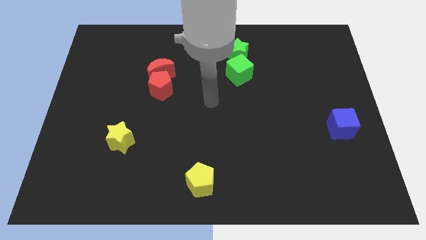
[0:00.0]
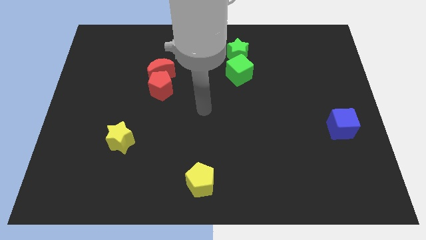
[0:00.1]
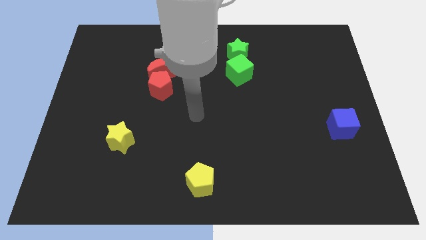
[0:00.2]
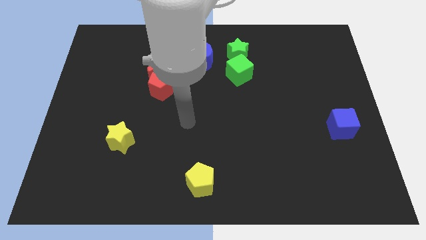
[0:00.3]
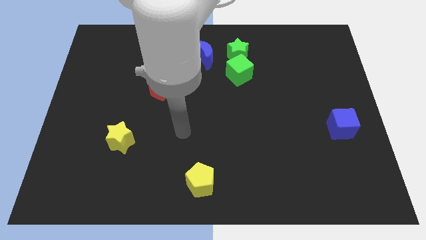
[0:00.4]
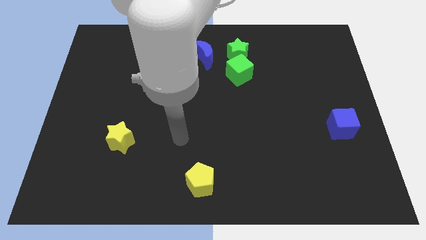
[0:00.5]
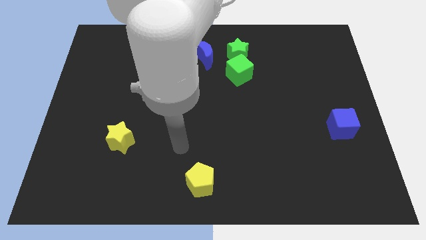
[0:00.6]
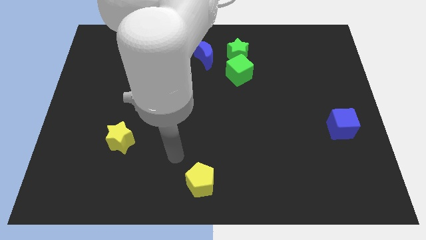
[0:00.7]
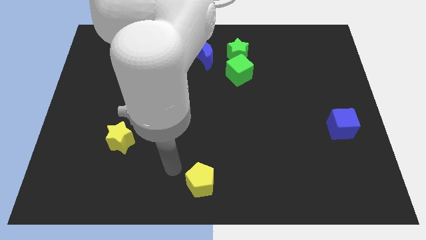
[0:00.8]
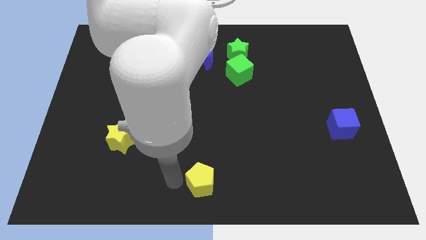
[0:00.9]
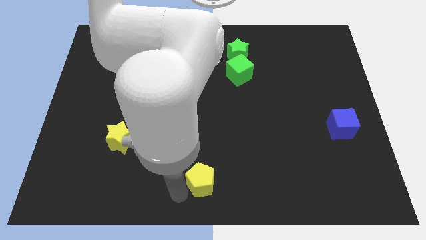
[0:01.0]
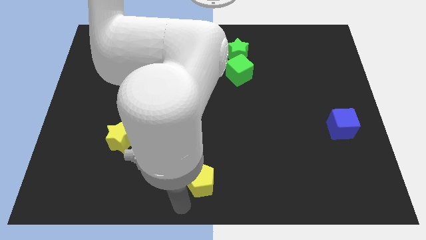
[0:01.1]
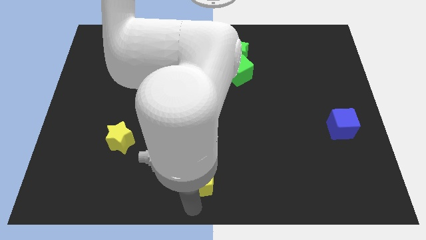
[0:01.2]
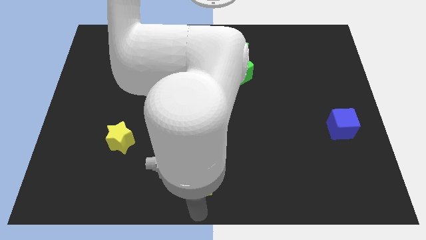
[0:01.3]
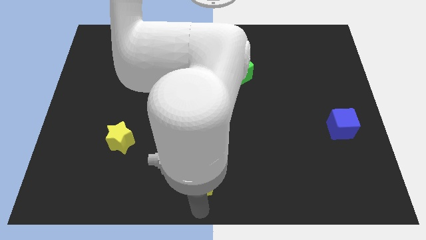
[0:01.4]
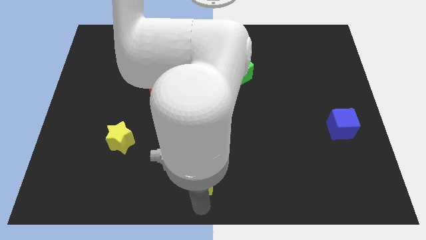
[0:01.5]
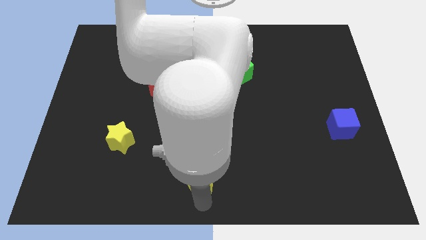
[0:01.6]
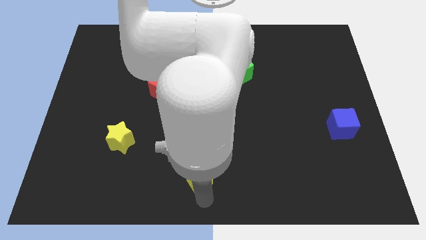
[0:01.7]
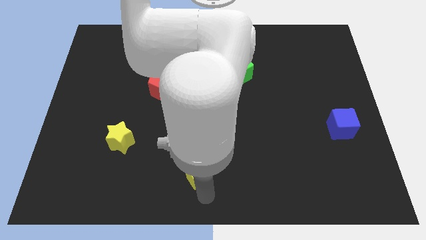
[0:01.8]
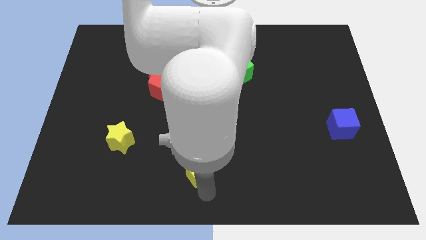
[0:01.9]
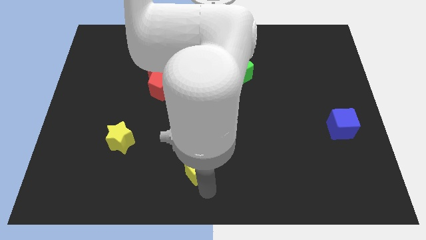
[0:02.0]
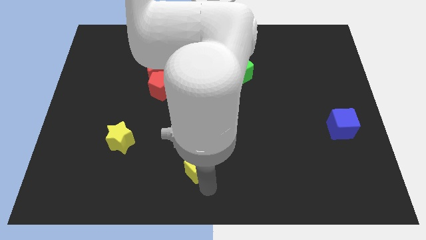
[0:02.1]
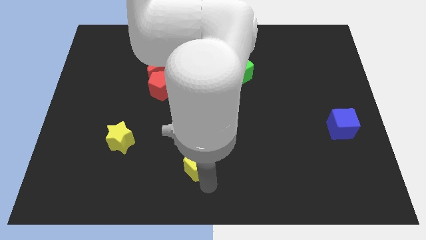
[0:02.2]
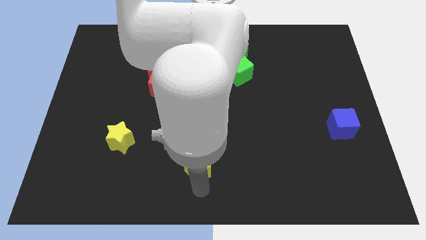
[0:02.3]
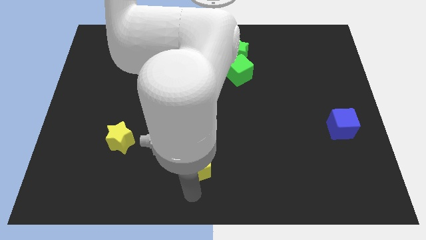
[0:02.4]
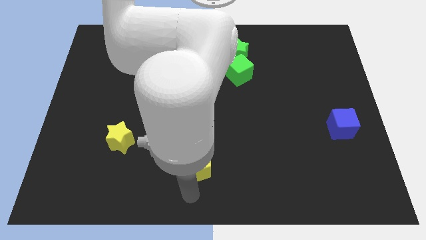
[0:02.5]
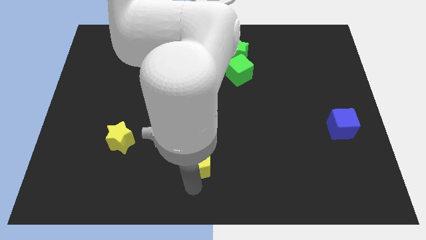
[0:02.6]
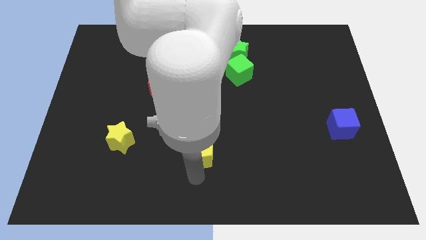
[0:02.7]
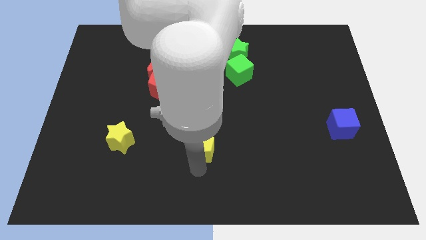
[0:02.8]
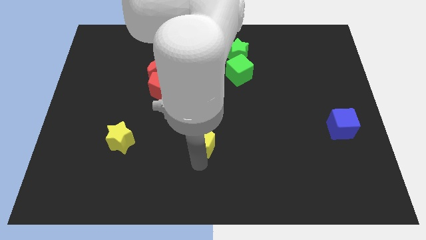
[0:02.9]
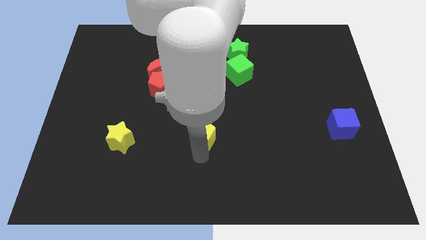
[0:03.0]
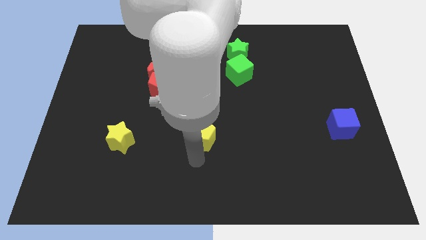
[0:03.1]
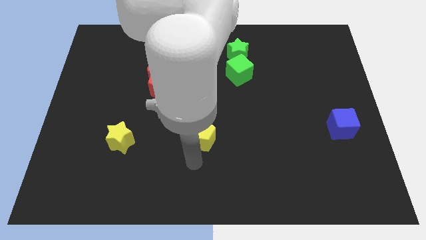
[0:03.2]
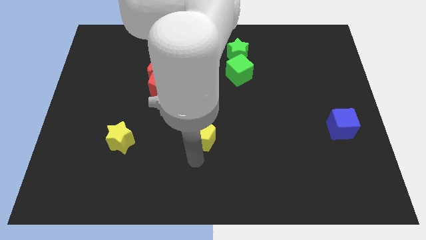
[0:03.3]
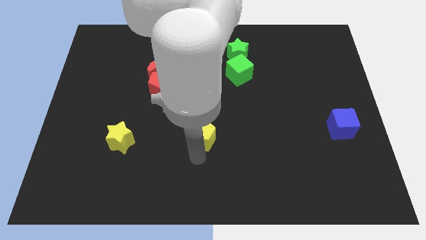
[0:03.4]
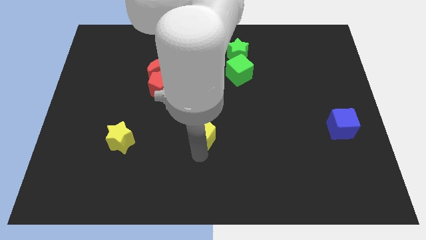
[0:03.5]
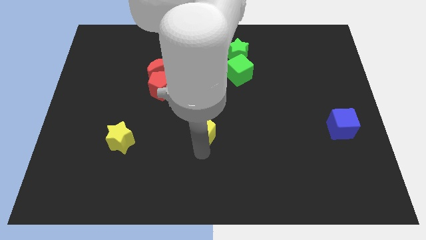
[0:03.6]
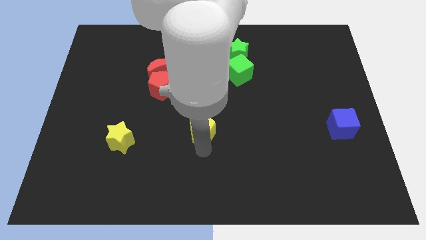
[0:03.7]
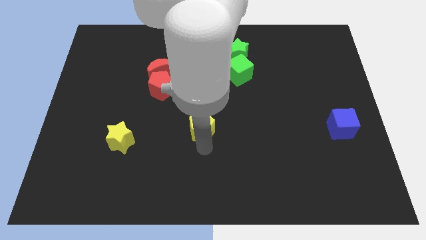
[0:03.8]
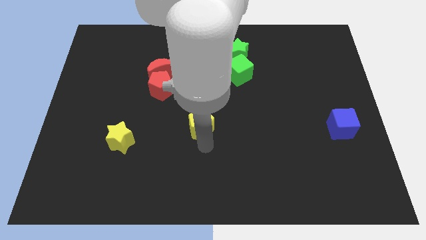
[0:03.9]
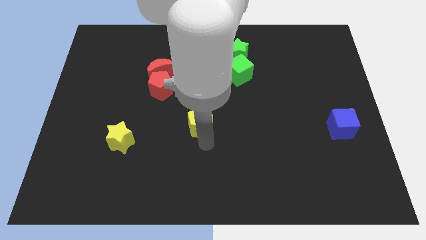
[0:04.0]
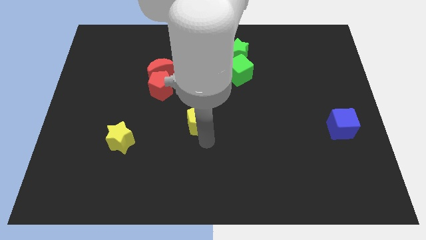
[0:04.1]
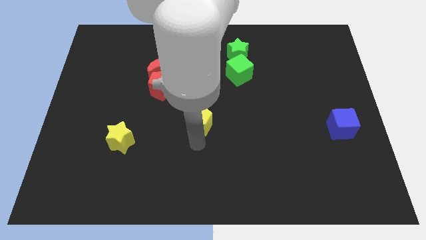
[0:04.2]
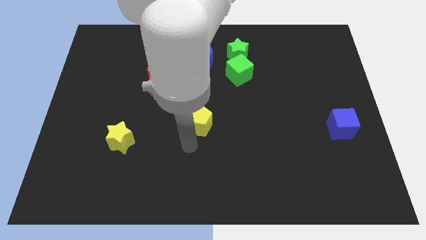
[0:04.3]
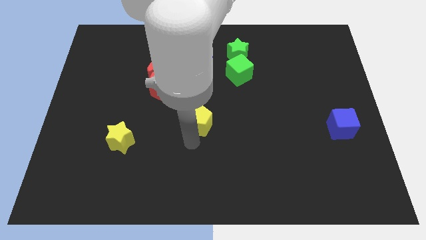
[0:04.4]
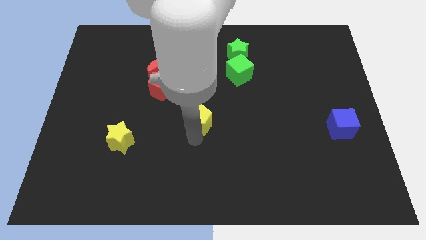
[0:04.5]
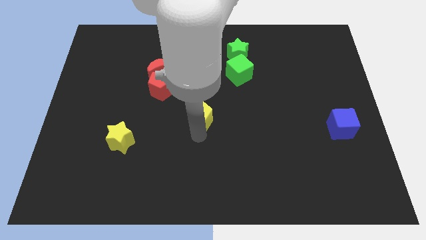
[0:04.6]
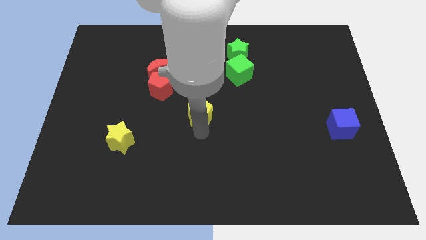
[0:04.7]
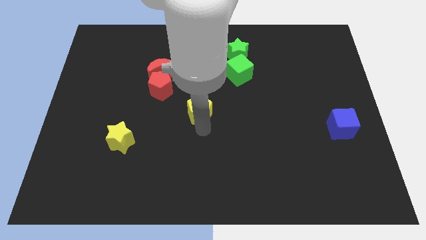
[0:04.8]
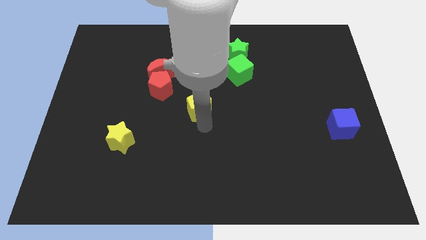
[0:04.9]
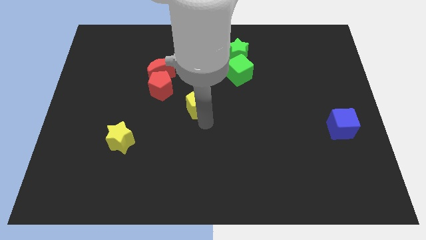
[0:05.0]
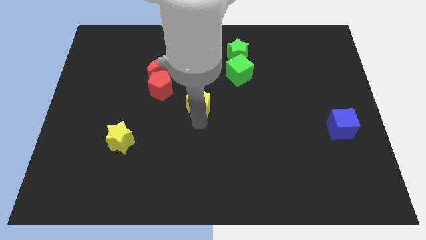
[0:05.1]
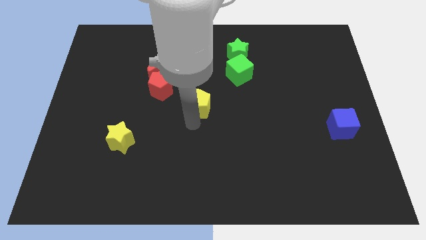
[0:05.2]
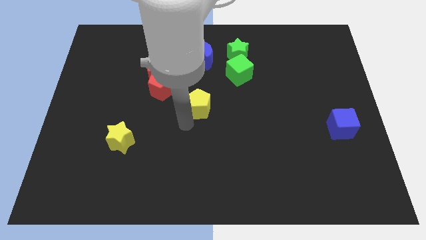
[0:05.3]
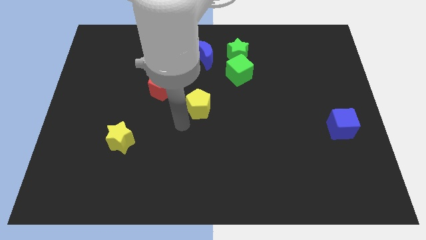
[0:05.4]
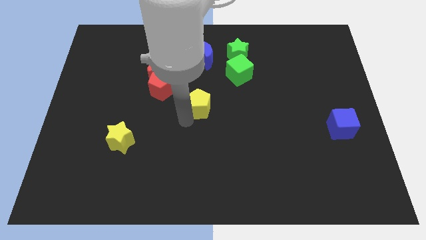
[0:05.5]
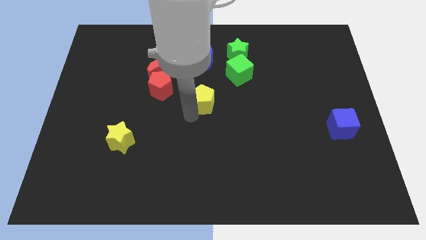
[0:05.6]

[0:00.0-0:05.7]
move the yellow pentagon to the bottom left side of the green cube

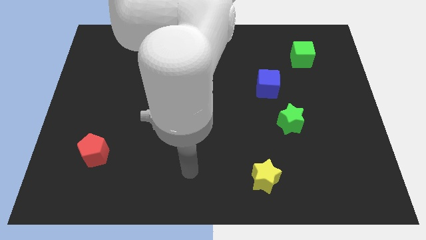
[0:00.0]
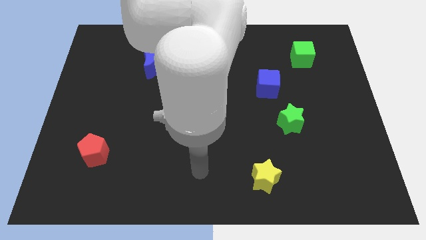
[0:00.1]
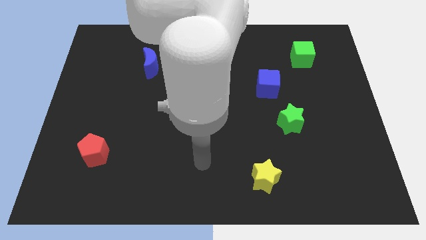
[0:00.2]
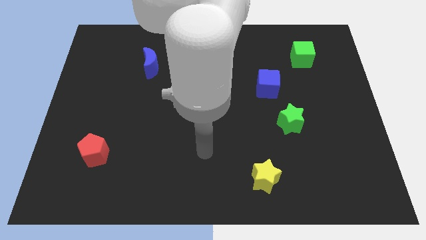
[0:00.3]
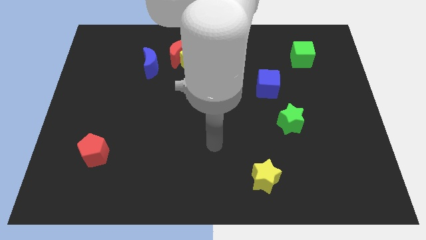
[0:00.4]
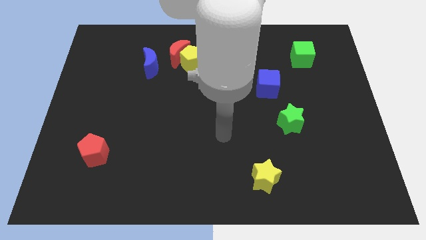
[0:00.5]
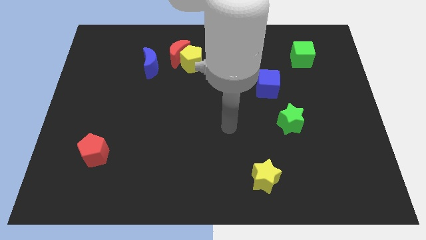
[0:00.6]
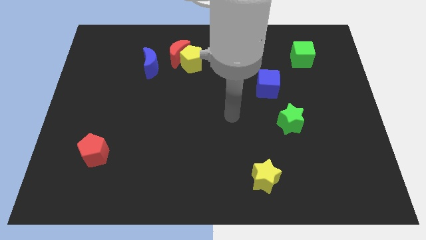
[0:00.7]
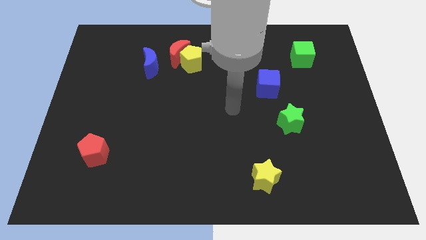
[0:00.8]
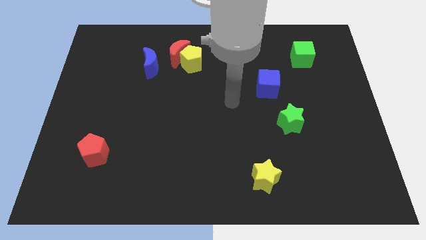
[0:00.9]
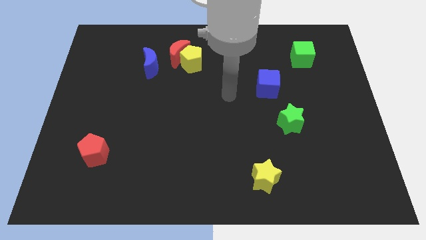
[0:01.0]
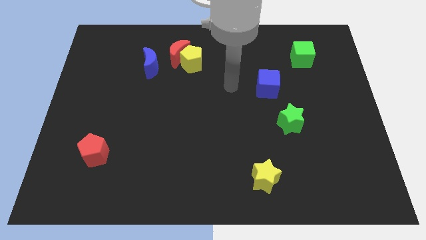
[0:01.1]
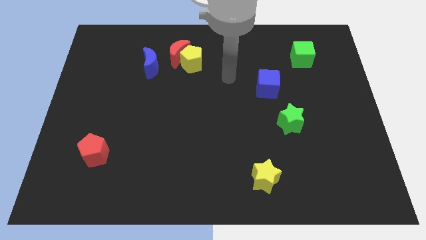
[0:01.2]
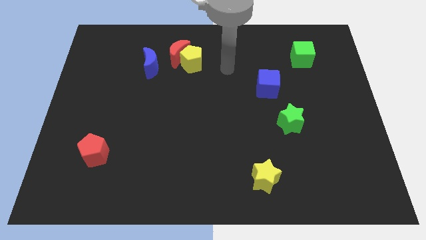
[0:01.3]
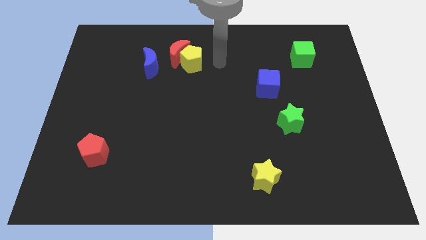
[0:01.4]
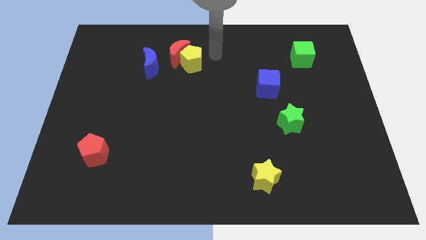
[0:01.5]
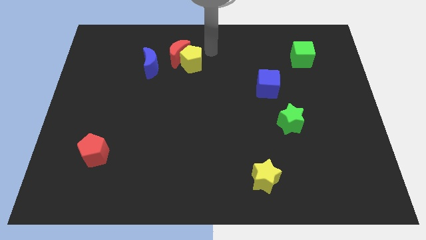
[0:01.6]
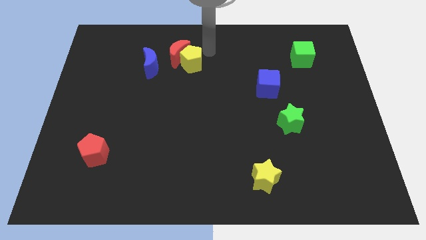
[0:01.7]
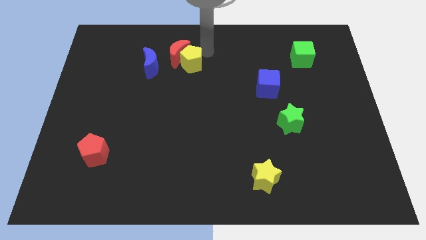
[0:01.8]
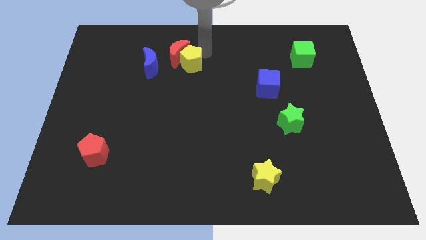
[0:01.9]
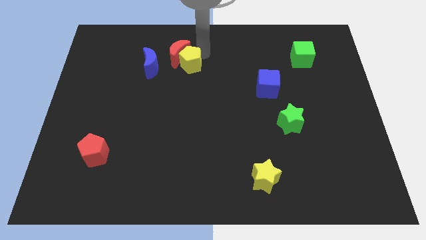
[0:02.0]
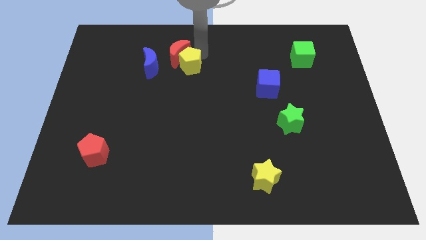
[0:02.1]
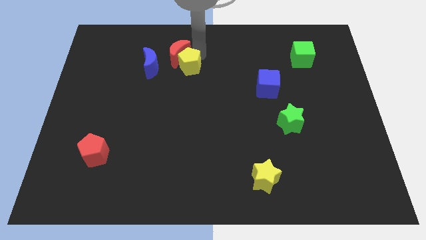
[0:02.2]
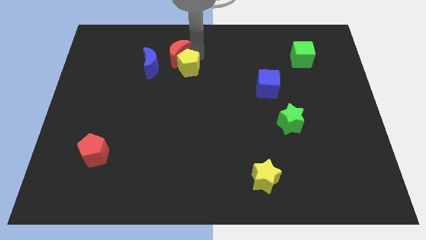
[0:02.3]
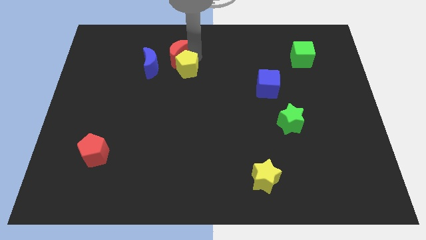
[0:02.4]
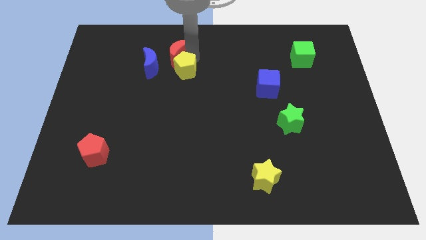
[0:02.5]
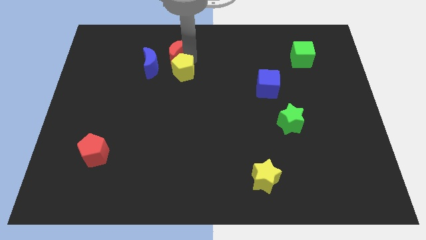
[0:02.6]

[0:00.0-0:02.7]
put the yellow pentagon diagonally down and to the right of the blue moon
